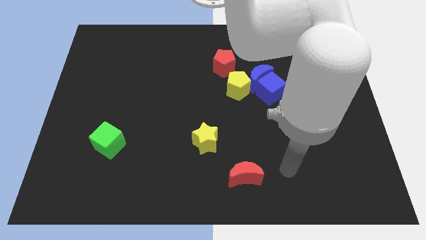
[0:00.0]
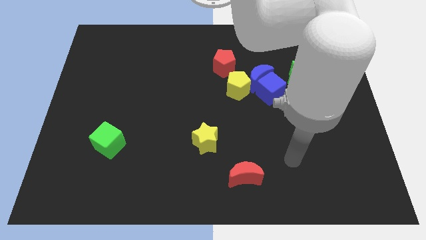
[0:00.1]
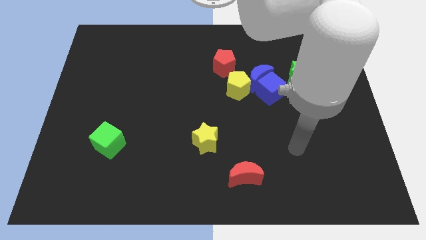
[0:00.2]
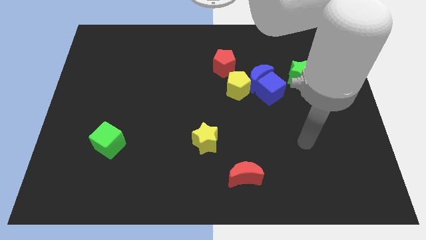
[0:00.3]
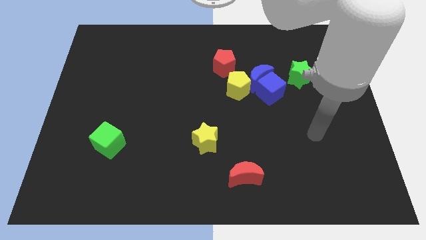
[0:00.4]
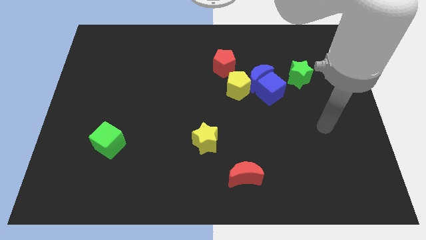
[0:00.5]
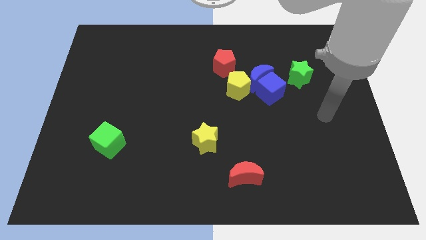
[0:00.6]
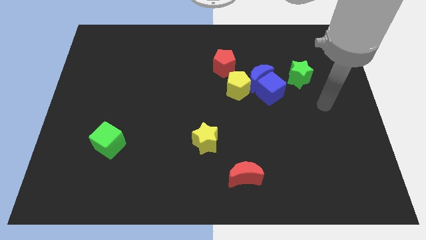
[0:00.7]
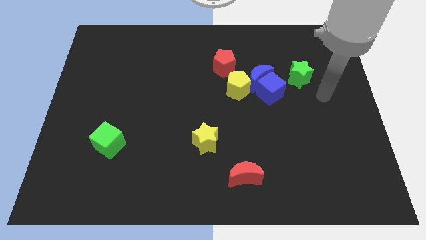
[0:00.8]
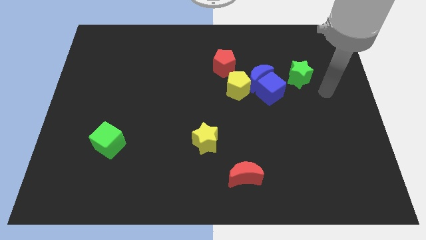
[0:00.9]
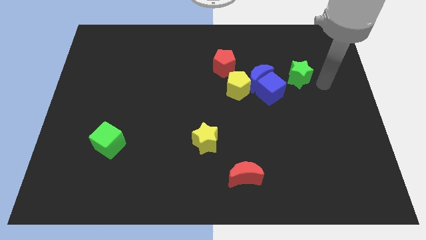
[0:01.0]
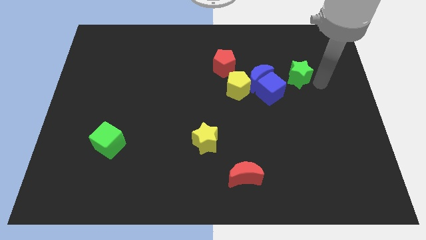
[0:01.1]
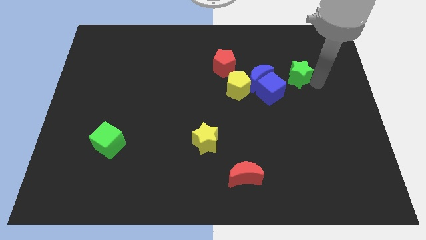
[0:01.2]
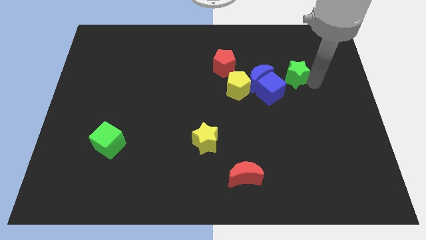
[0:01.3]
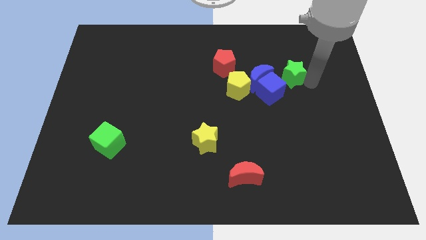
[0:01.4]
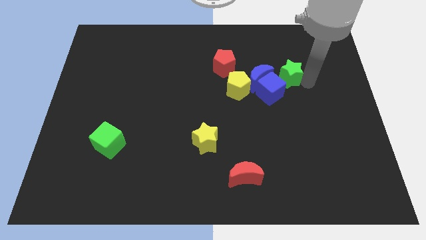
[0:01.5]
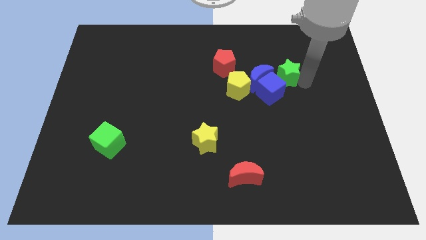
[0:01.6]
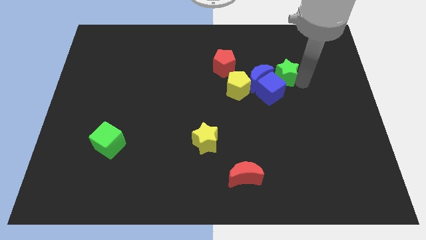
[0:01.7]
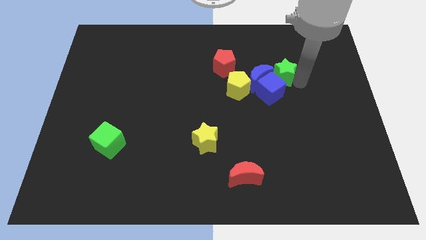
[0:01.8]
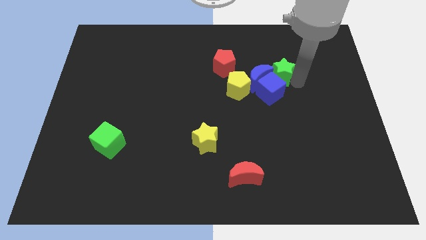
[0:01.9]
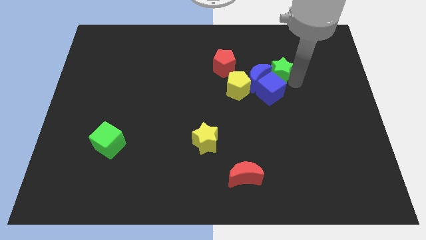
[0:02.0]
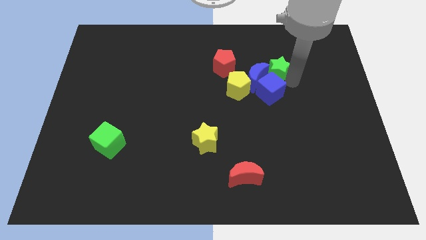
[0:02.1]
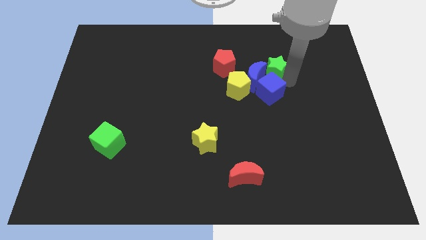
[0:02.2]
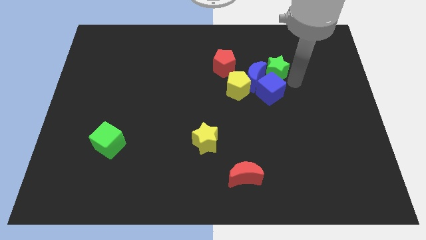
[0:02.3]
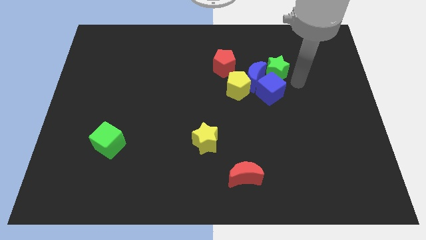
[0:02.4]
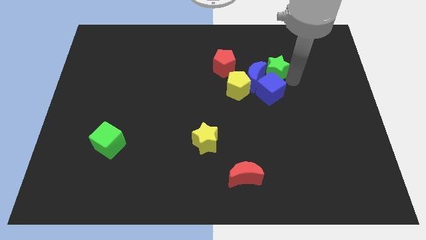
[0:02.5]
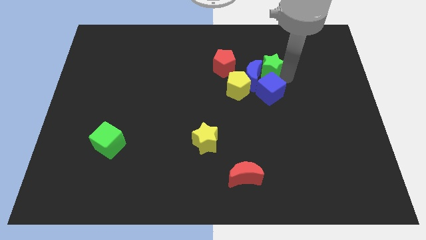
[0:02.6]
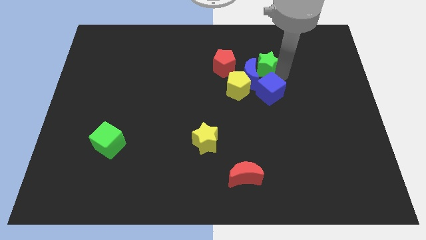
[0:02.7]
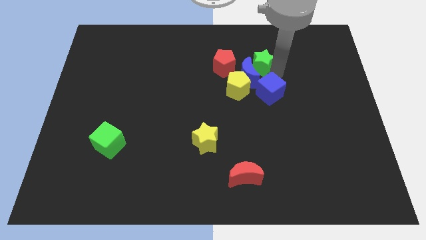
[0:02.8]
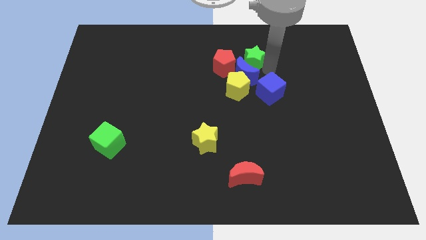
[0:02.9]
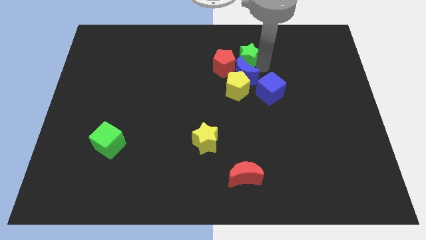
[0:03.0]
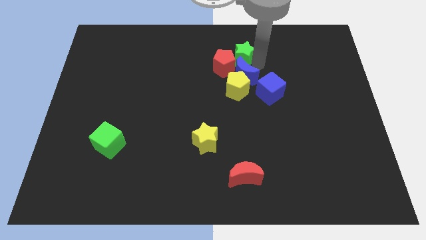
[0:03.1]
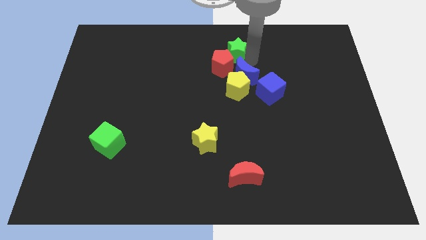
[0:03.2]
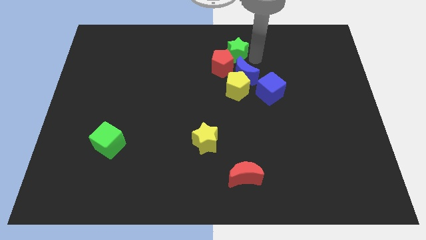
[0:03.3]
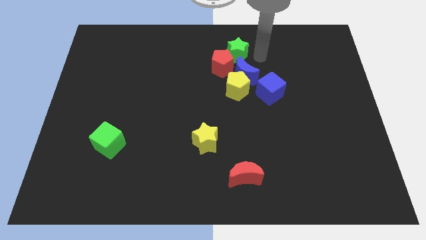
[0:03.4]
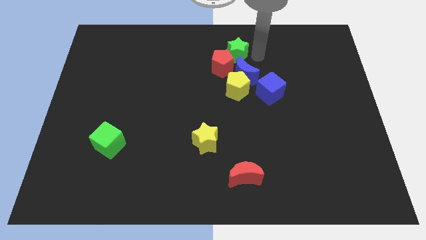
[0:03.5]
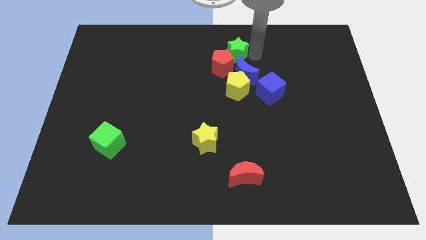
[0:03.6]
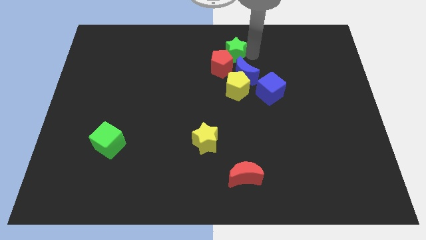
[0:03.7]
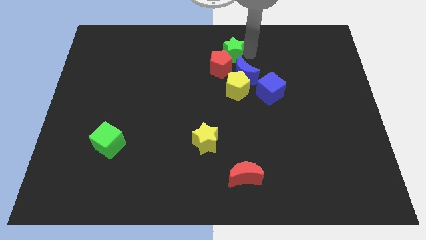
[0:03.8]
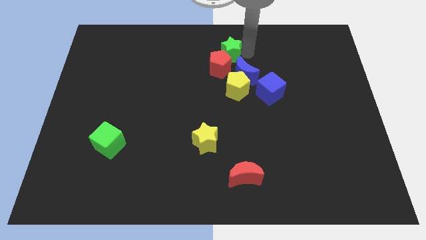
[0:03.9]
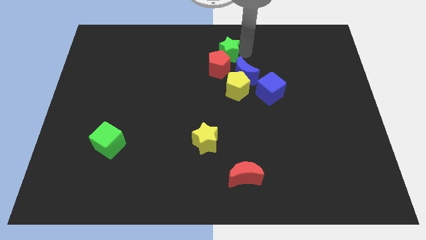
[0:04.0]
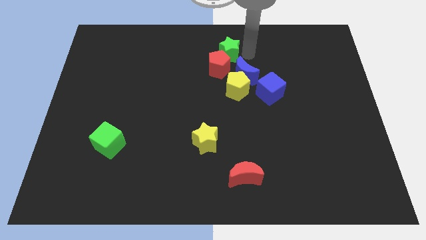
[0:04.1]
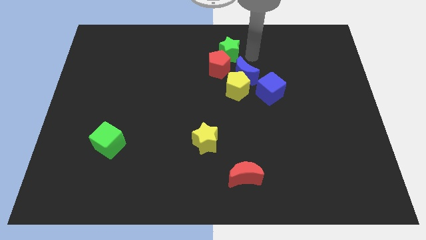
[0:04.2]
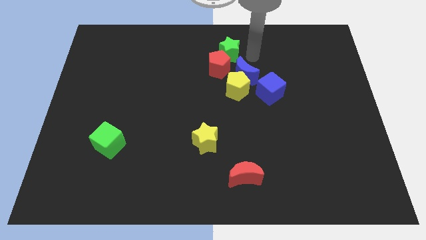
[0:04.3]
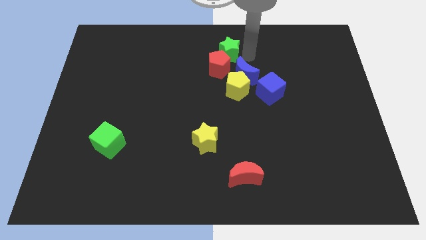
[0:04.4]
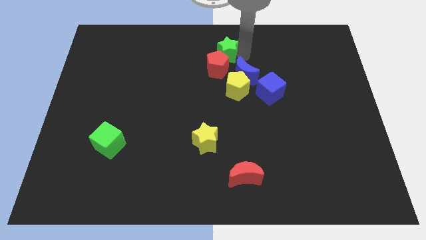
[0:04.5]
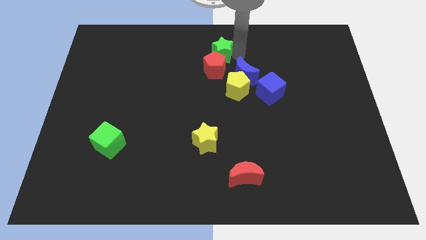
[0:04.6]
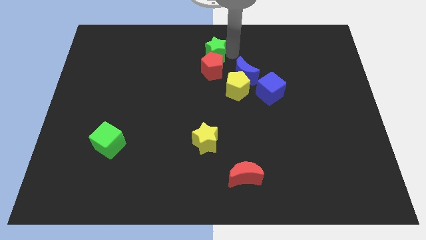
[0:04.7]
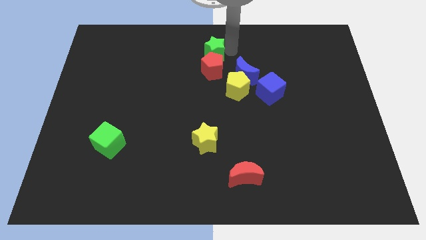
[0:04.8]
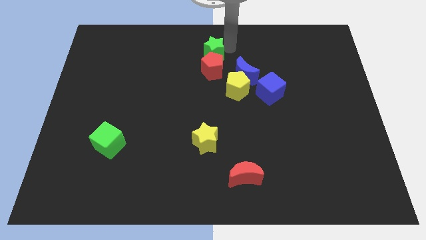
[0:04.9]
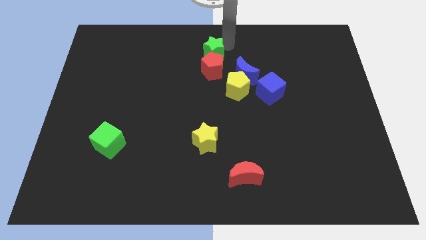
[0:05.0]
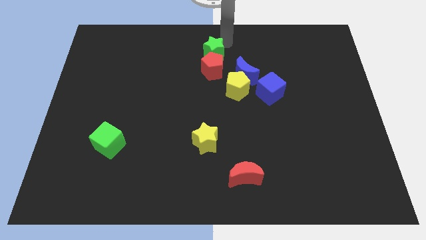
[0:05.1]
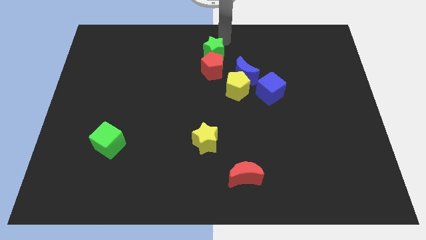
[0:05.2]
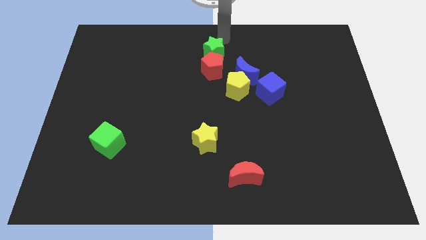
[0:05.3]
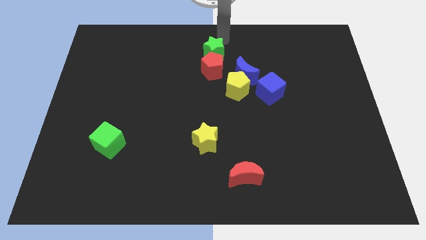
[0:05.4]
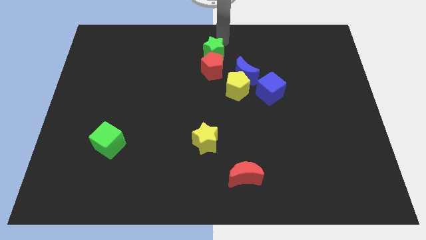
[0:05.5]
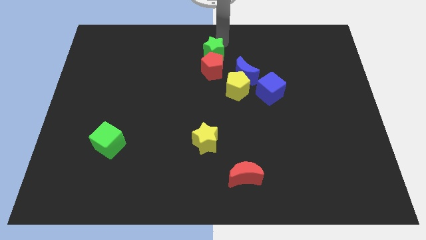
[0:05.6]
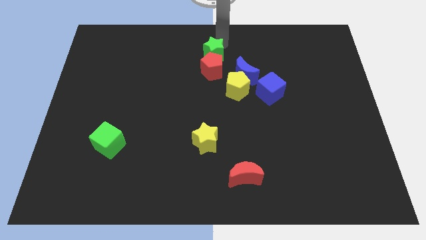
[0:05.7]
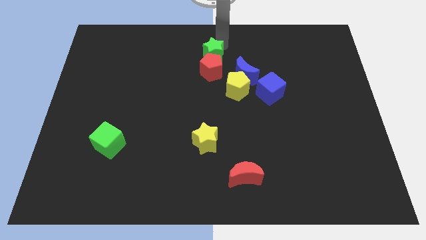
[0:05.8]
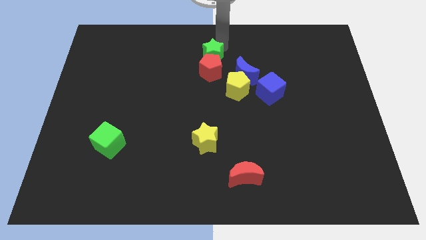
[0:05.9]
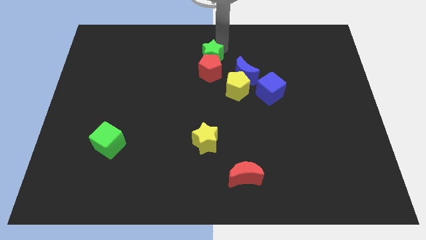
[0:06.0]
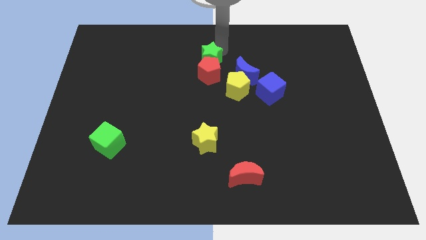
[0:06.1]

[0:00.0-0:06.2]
move the green star to the left

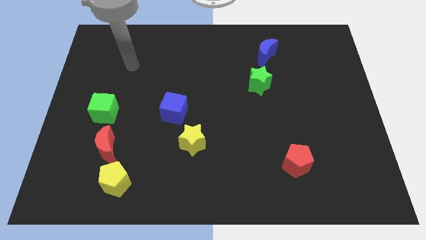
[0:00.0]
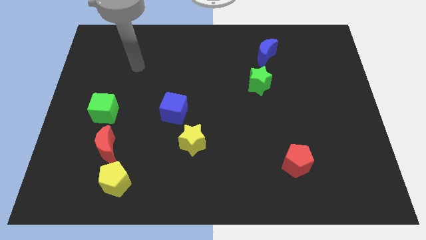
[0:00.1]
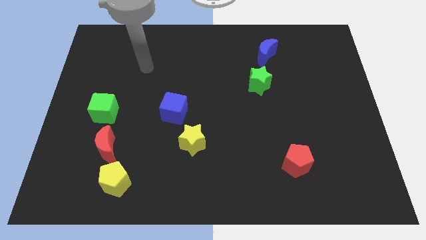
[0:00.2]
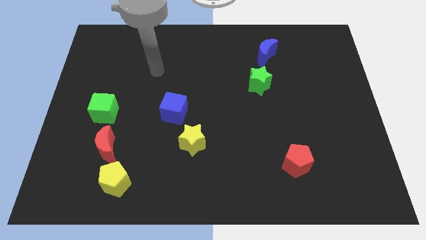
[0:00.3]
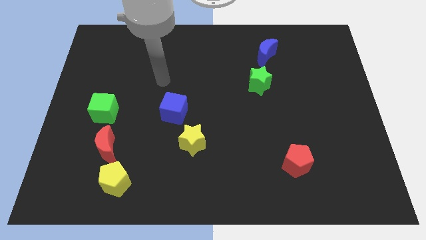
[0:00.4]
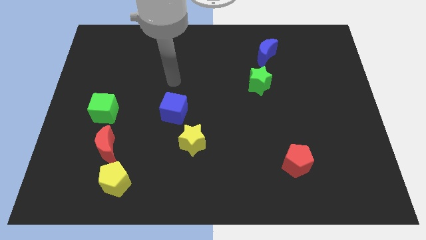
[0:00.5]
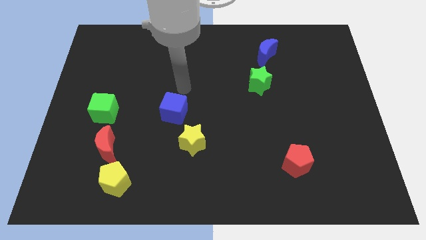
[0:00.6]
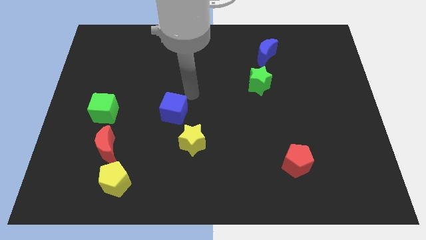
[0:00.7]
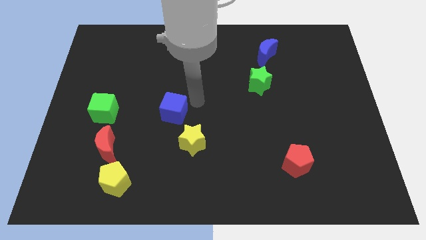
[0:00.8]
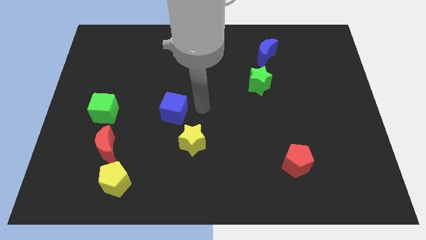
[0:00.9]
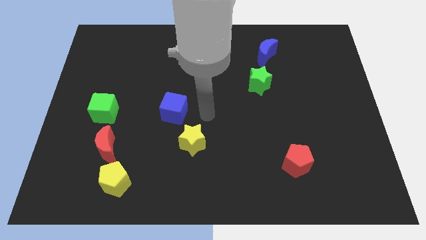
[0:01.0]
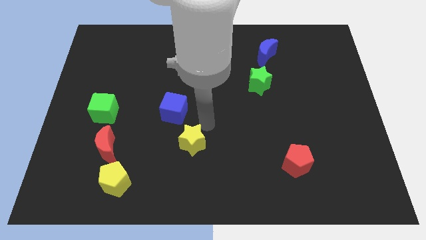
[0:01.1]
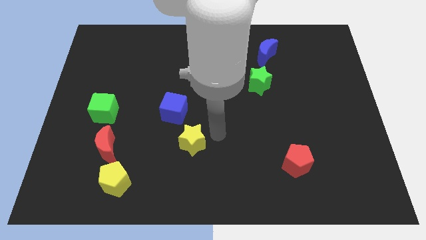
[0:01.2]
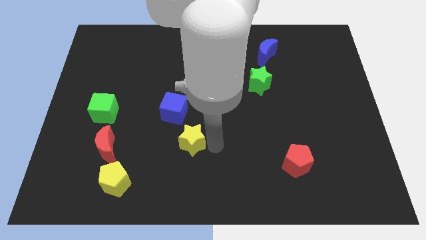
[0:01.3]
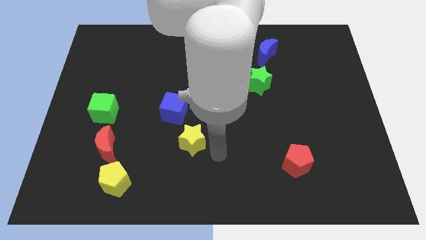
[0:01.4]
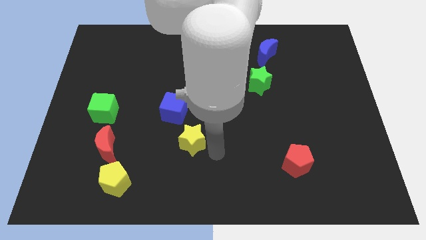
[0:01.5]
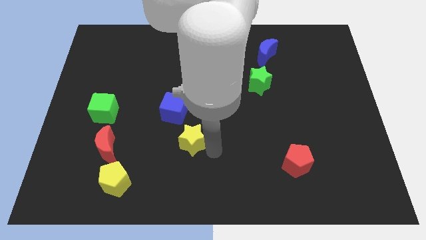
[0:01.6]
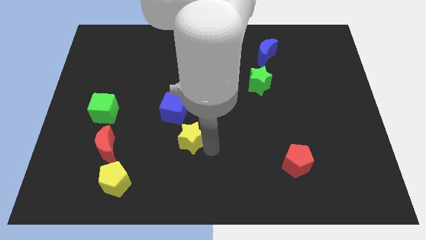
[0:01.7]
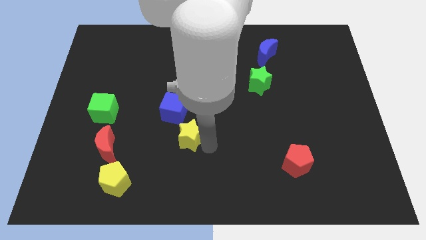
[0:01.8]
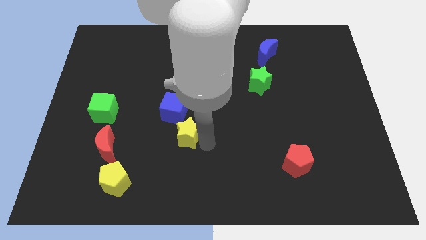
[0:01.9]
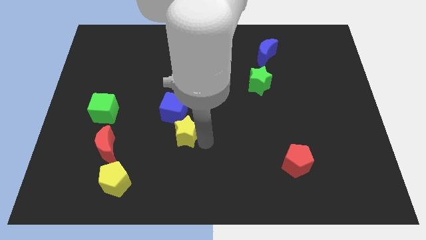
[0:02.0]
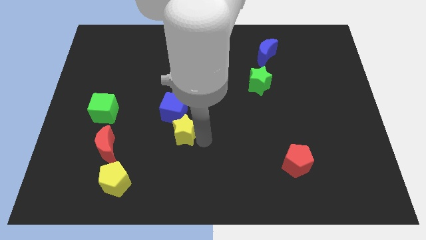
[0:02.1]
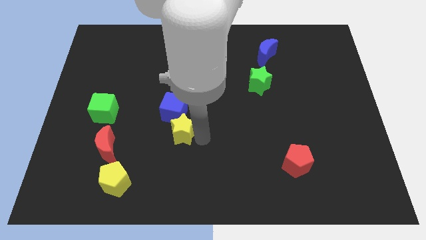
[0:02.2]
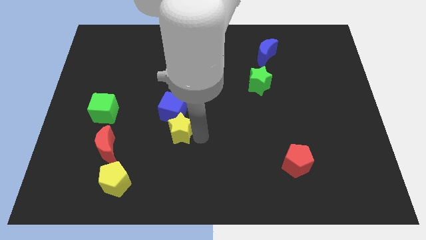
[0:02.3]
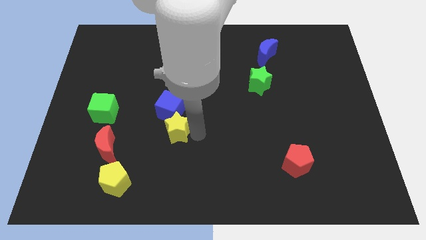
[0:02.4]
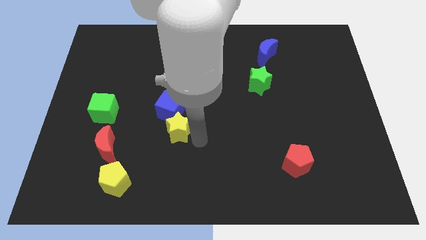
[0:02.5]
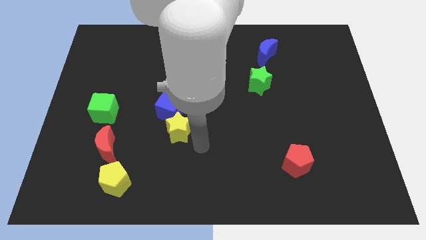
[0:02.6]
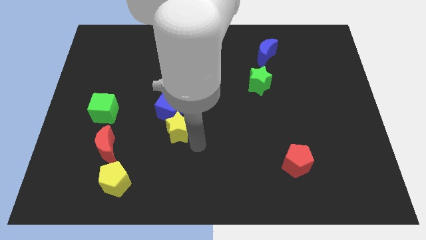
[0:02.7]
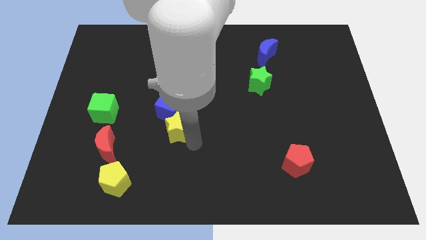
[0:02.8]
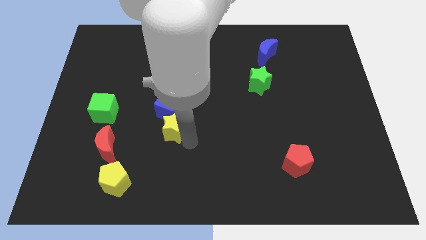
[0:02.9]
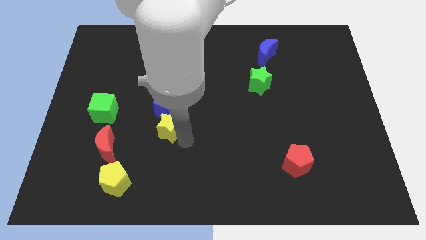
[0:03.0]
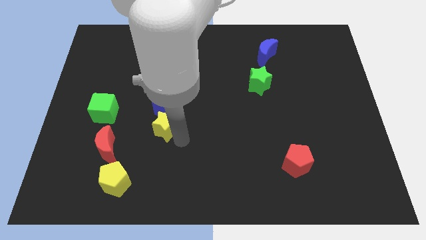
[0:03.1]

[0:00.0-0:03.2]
slightly push the yellow star up and left
